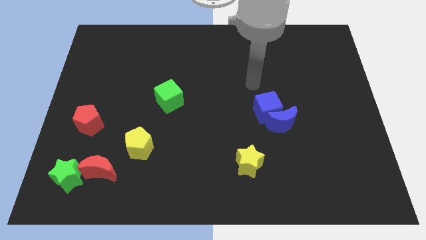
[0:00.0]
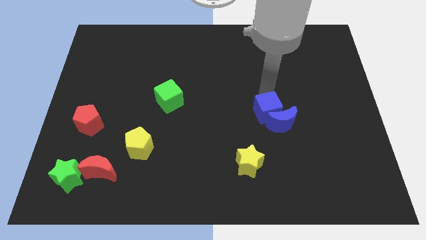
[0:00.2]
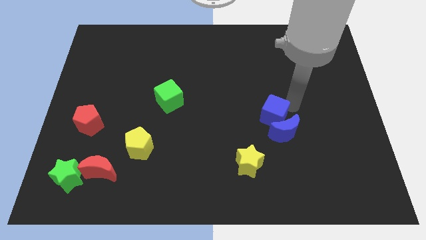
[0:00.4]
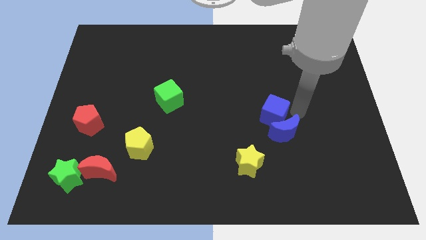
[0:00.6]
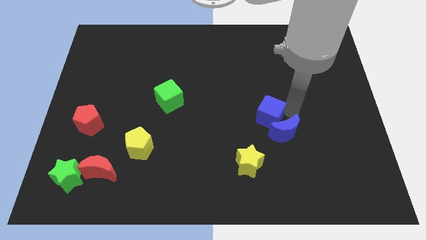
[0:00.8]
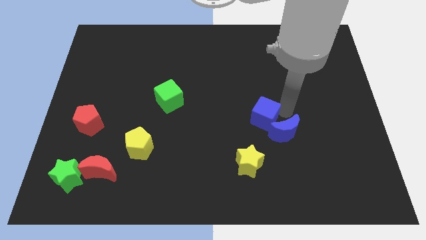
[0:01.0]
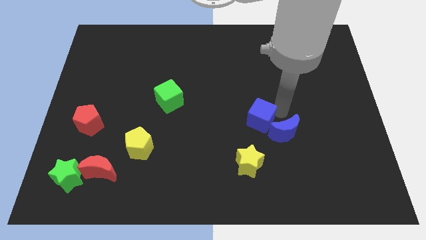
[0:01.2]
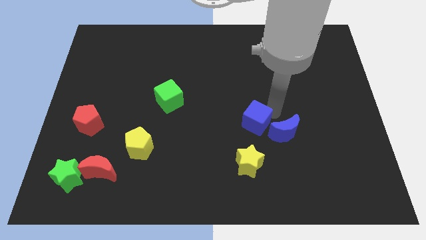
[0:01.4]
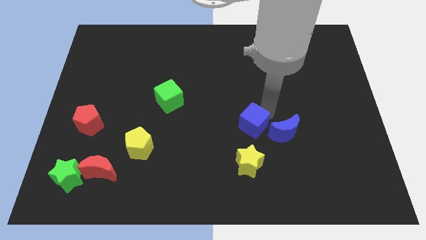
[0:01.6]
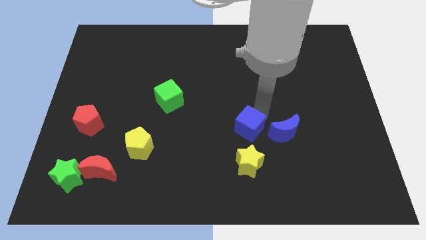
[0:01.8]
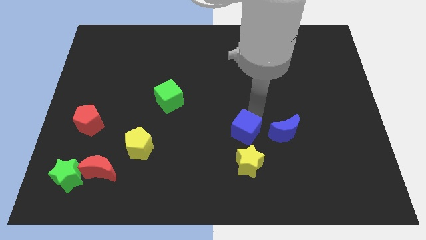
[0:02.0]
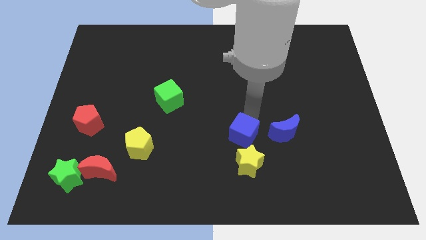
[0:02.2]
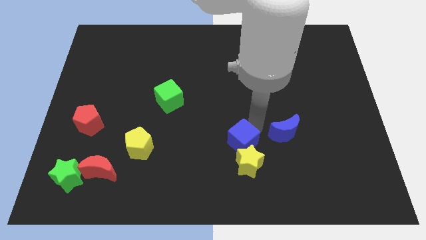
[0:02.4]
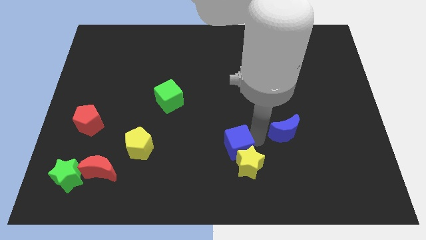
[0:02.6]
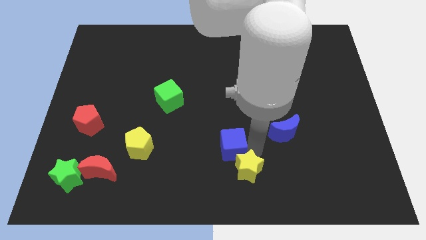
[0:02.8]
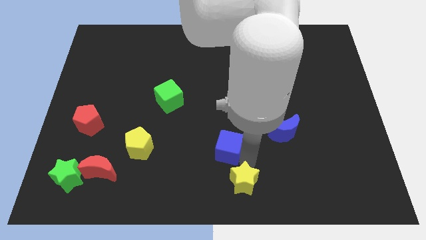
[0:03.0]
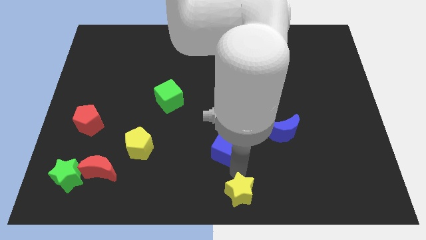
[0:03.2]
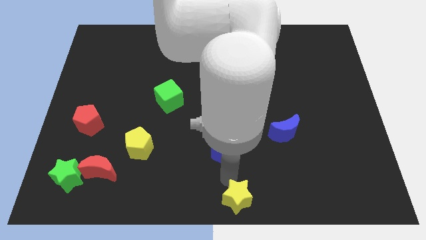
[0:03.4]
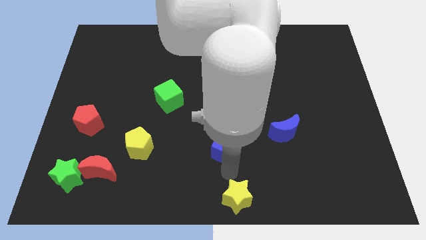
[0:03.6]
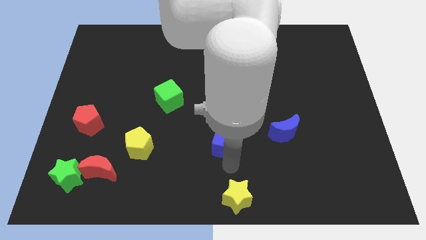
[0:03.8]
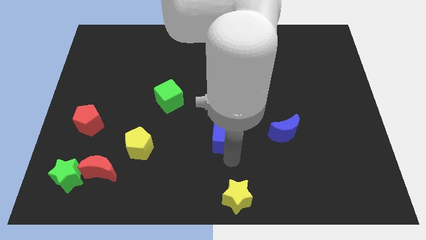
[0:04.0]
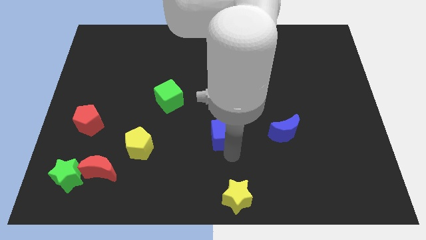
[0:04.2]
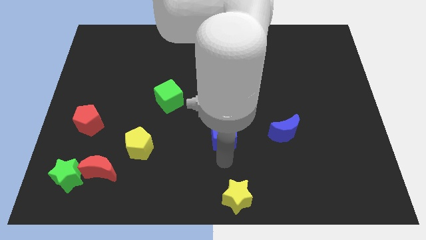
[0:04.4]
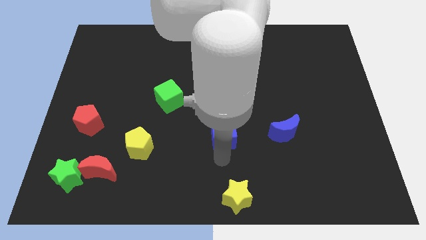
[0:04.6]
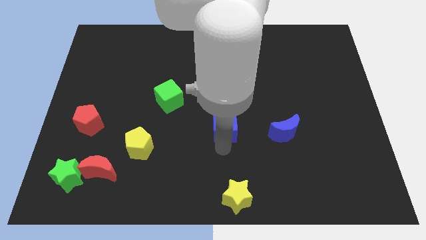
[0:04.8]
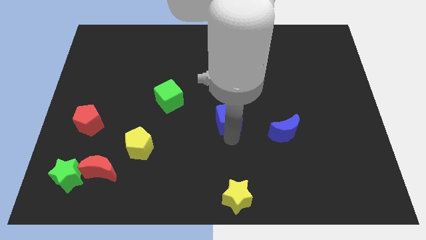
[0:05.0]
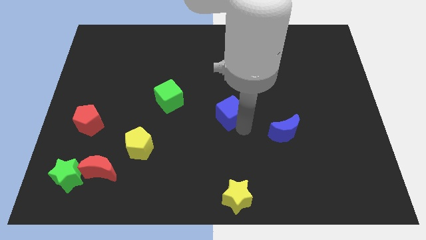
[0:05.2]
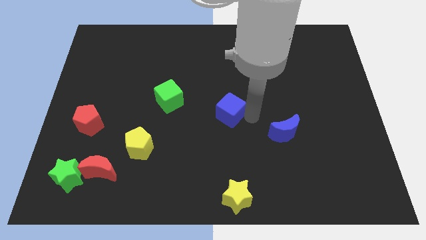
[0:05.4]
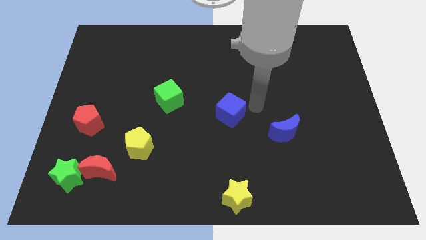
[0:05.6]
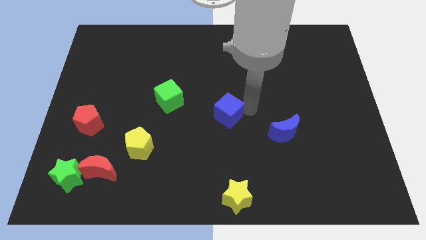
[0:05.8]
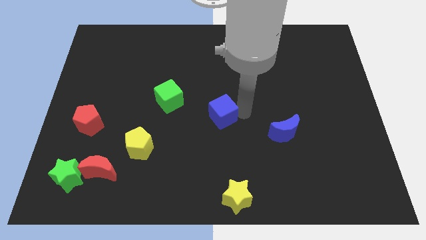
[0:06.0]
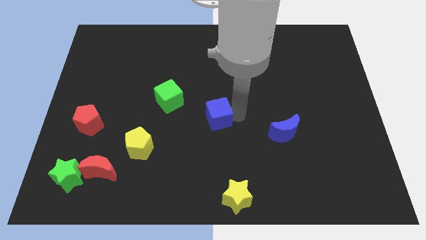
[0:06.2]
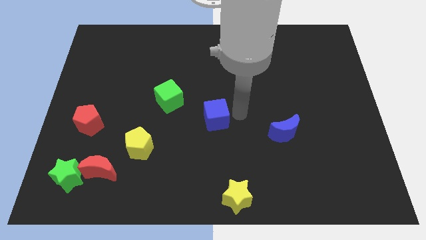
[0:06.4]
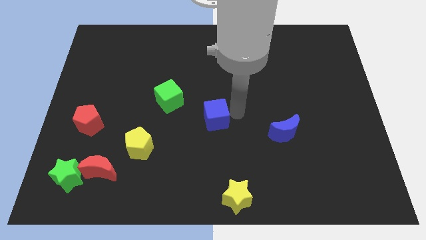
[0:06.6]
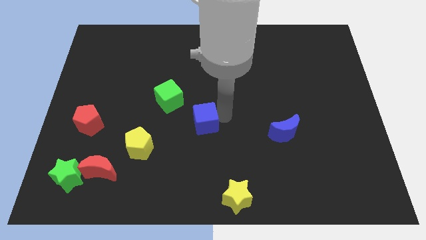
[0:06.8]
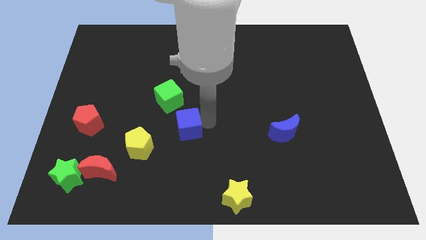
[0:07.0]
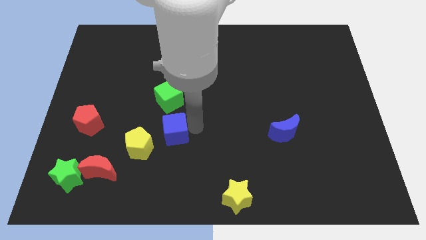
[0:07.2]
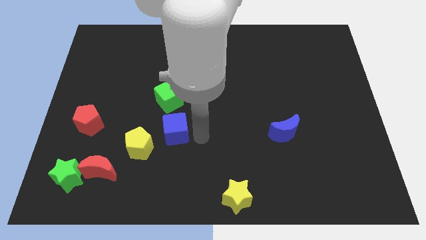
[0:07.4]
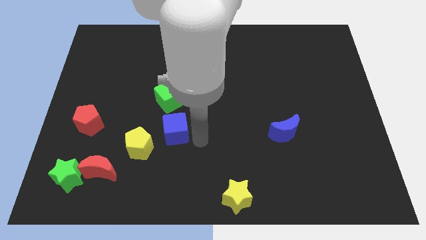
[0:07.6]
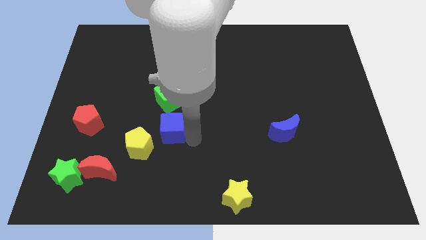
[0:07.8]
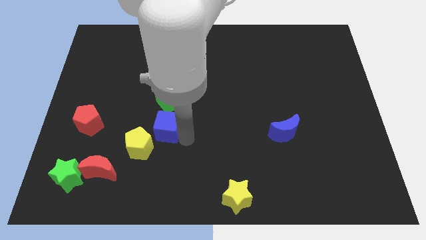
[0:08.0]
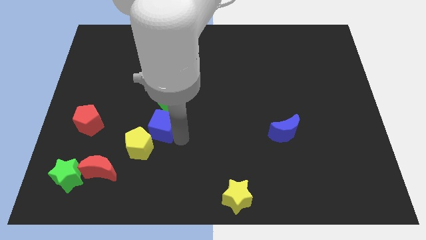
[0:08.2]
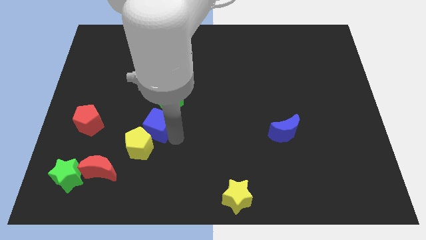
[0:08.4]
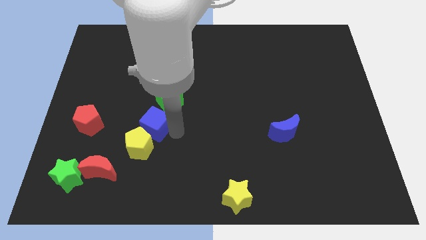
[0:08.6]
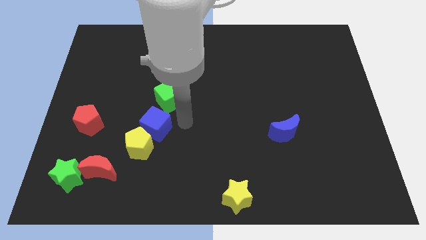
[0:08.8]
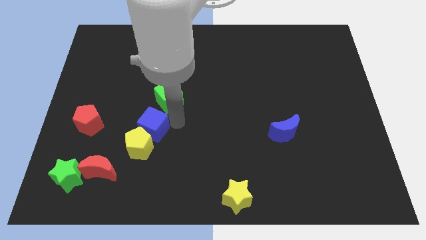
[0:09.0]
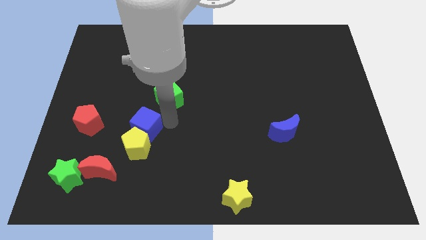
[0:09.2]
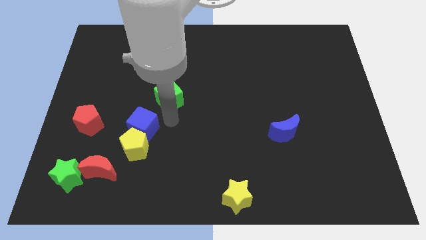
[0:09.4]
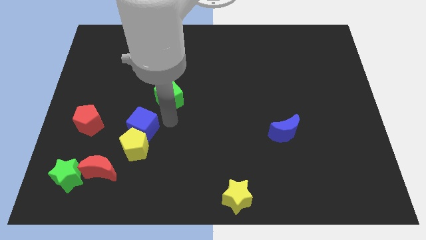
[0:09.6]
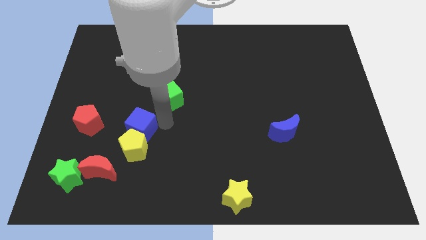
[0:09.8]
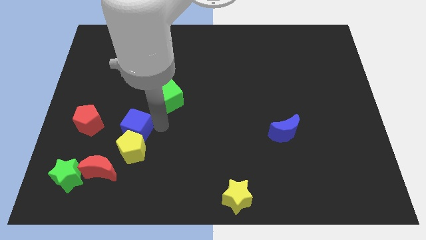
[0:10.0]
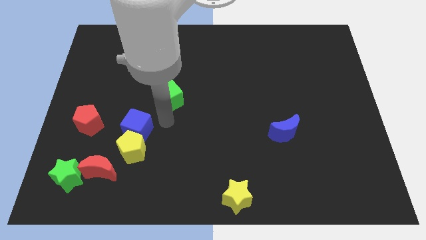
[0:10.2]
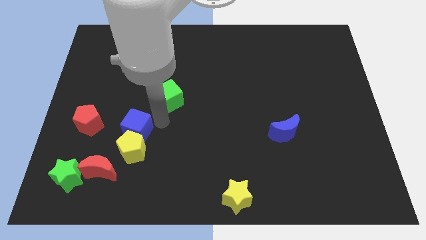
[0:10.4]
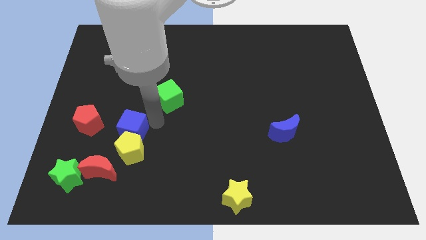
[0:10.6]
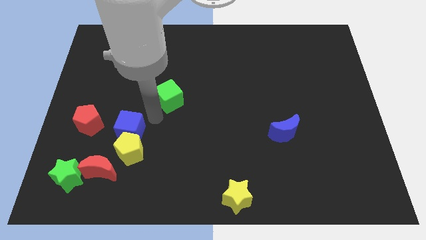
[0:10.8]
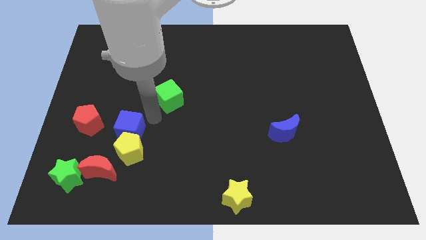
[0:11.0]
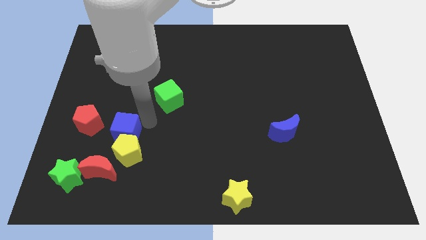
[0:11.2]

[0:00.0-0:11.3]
put the blue cube to the bottom right of the red pentagon

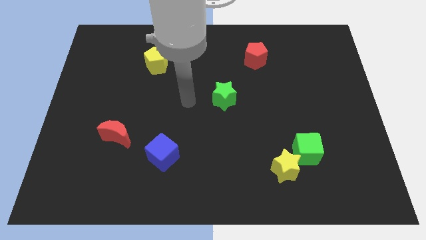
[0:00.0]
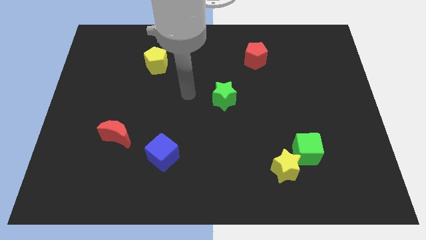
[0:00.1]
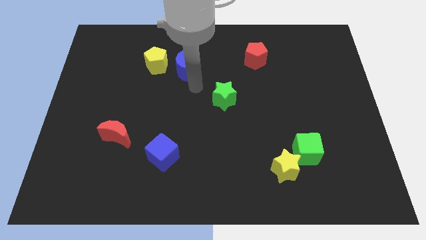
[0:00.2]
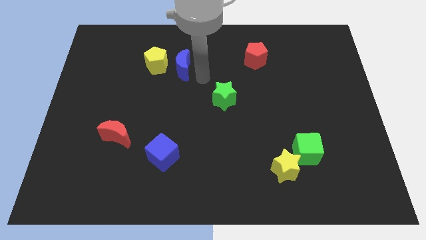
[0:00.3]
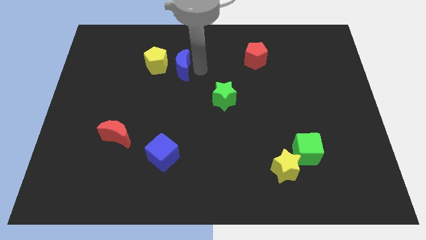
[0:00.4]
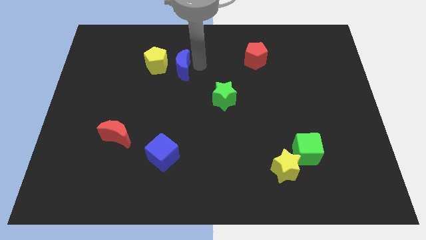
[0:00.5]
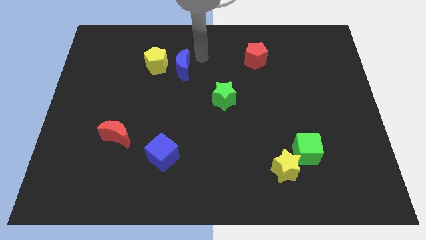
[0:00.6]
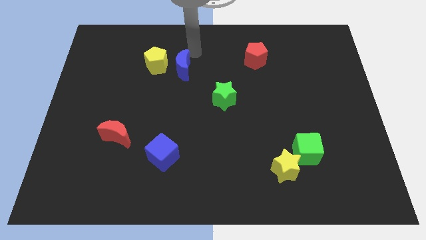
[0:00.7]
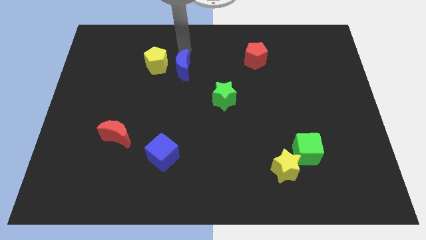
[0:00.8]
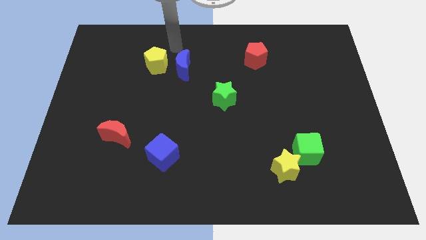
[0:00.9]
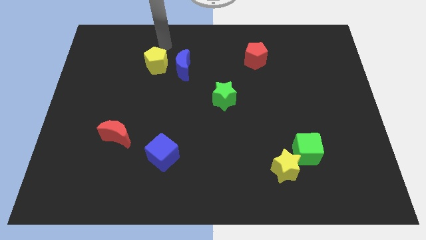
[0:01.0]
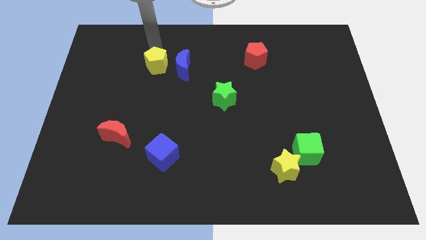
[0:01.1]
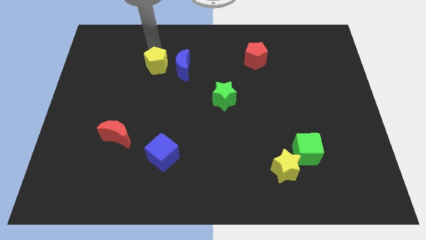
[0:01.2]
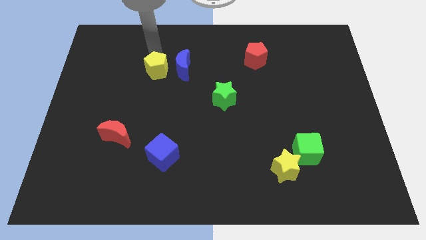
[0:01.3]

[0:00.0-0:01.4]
slide the yellow pentagon to the bottom left of the blue moon

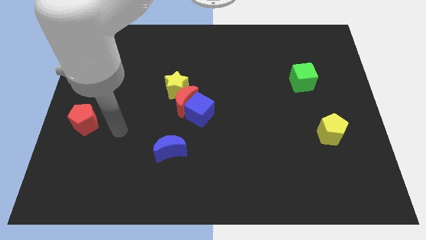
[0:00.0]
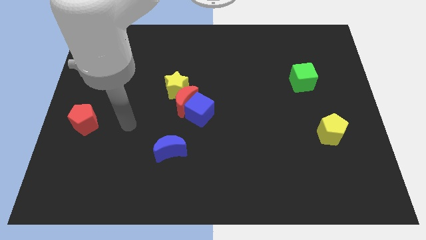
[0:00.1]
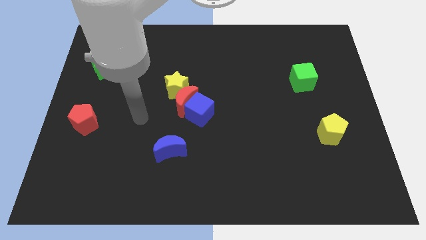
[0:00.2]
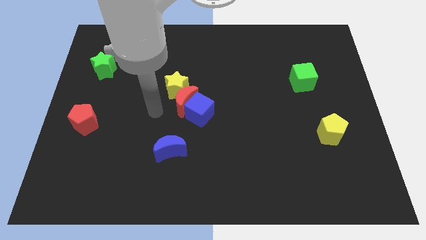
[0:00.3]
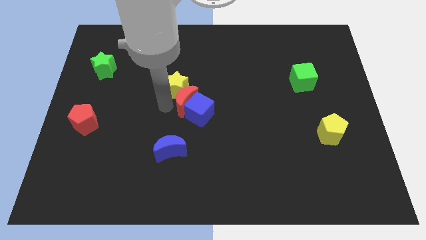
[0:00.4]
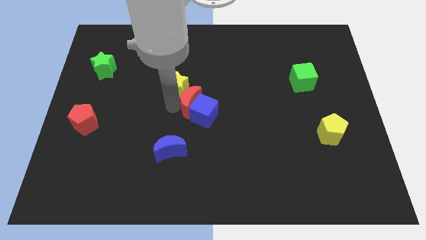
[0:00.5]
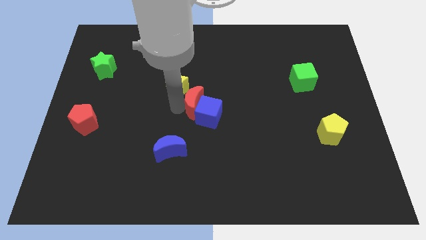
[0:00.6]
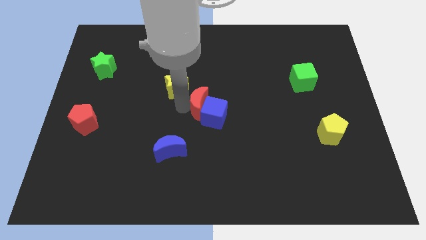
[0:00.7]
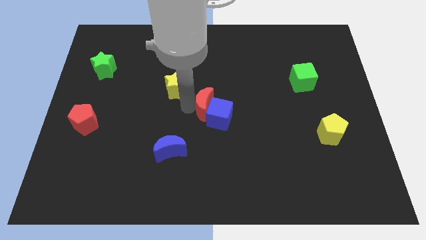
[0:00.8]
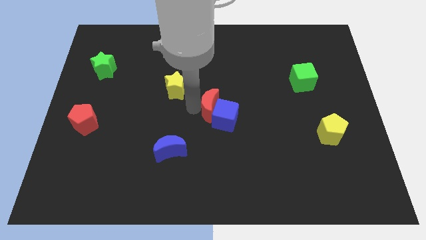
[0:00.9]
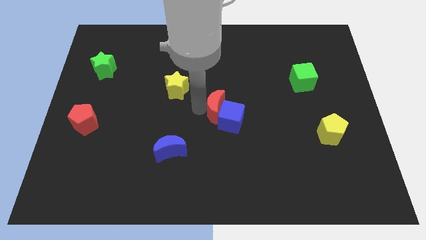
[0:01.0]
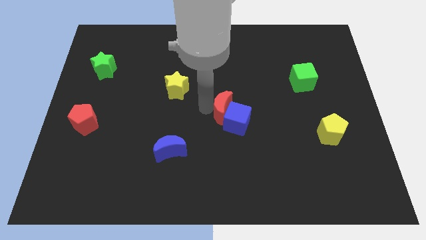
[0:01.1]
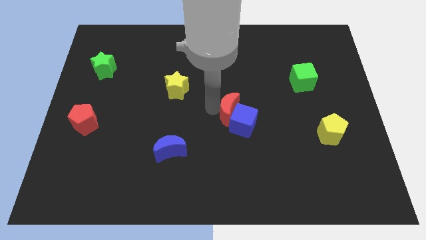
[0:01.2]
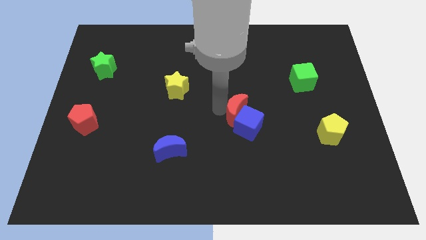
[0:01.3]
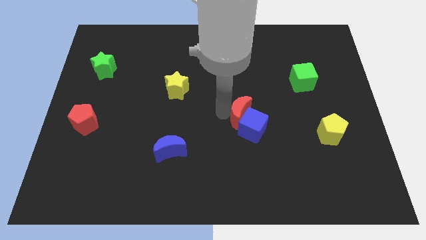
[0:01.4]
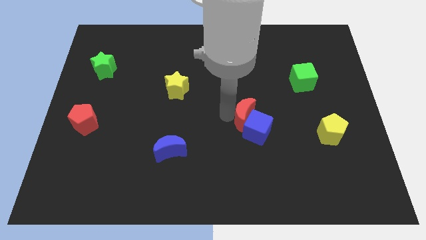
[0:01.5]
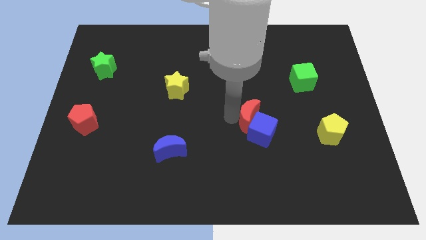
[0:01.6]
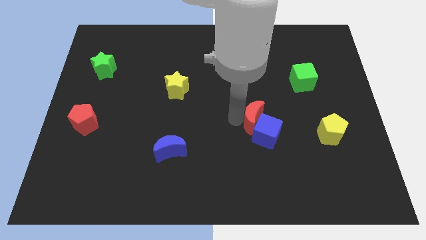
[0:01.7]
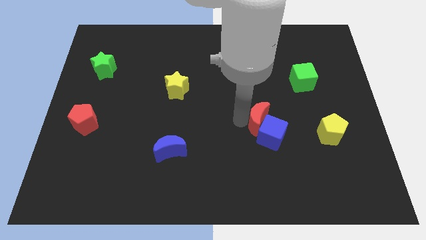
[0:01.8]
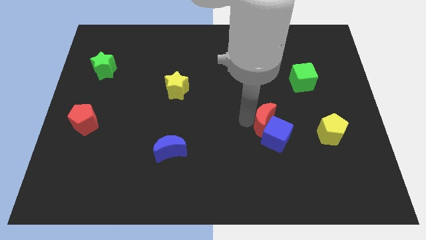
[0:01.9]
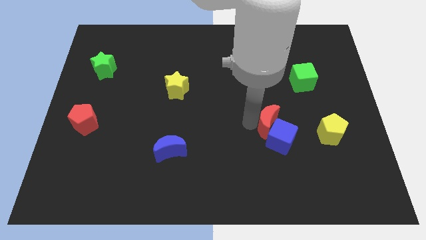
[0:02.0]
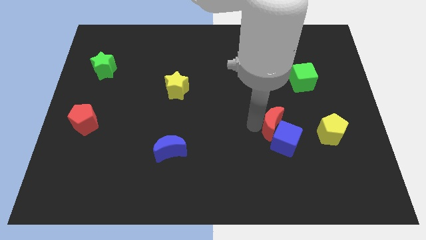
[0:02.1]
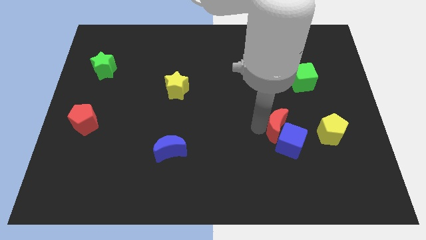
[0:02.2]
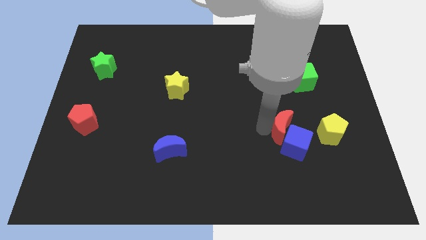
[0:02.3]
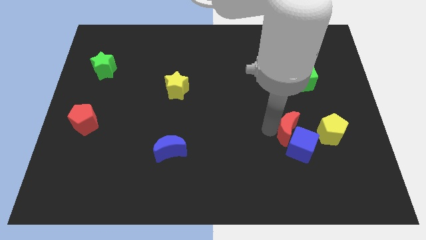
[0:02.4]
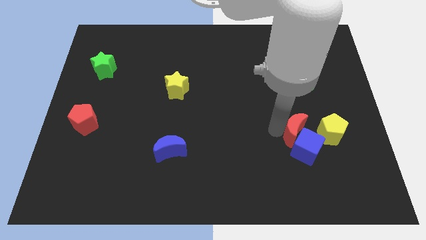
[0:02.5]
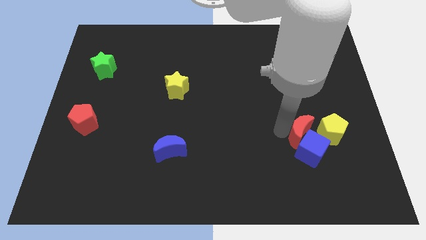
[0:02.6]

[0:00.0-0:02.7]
put the blue cube below the yellow pentagon
